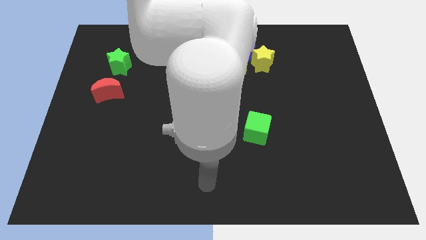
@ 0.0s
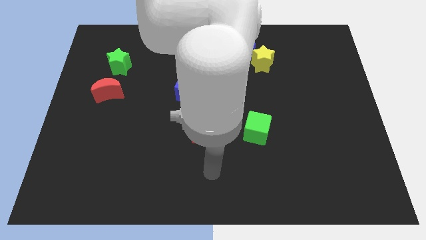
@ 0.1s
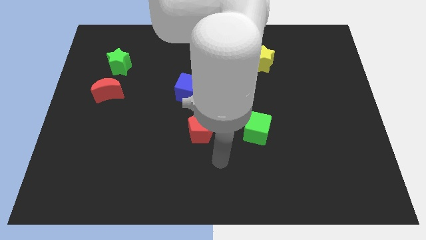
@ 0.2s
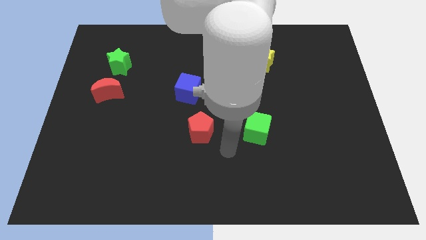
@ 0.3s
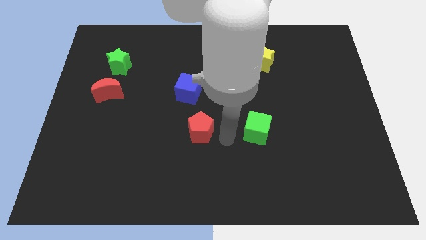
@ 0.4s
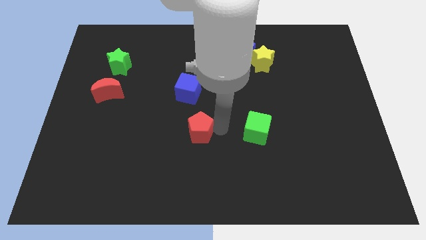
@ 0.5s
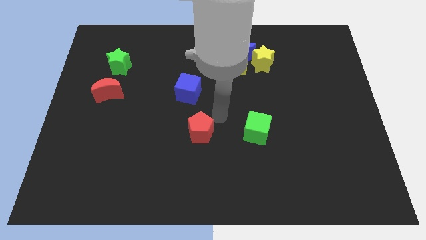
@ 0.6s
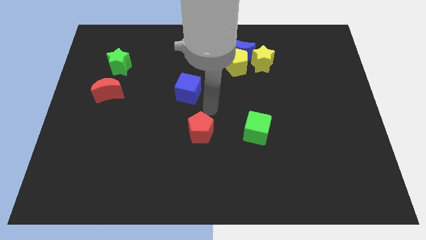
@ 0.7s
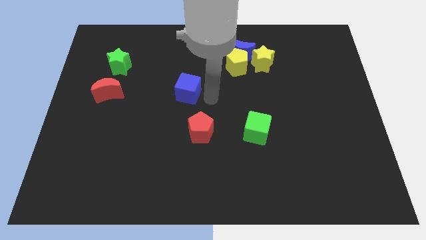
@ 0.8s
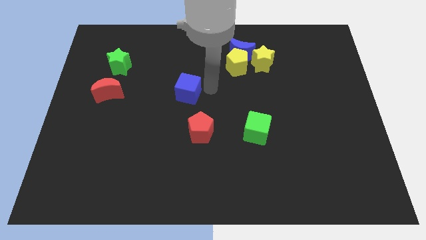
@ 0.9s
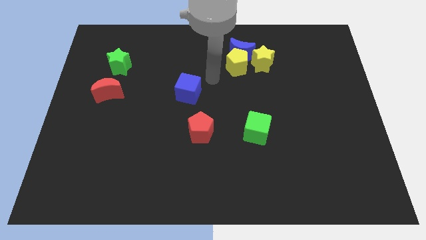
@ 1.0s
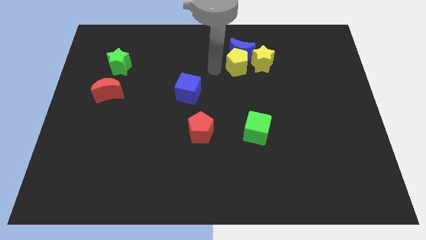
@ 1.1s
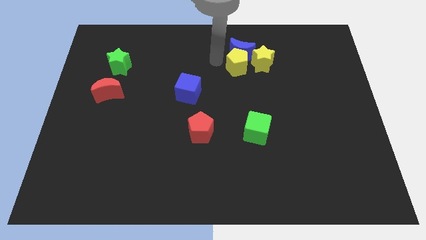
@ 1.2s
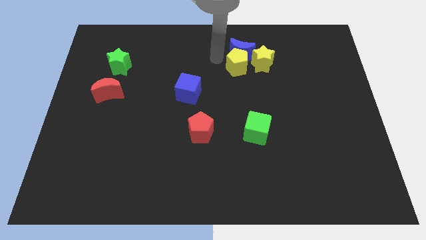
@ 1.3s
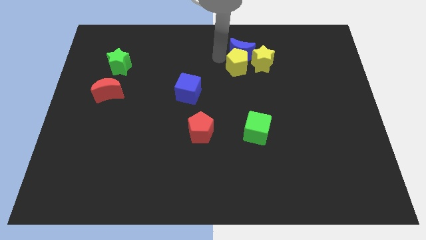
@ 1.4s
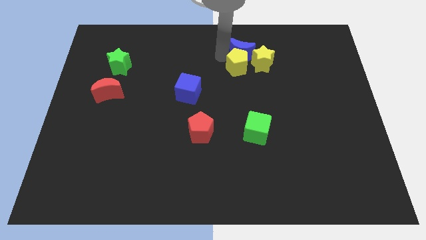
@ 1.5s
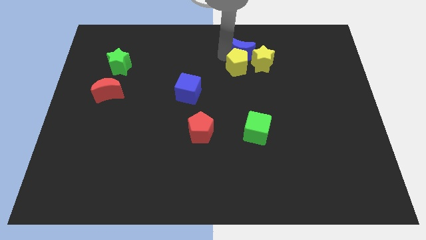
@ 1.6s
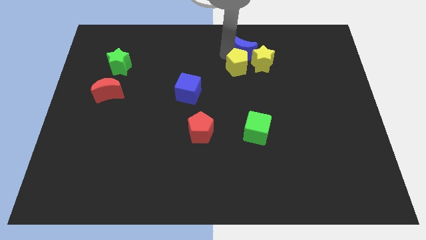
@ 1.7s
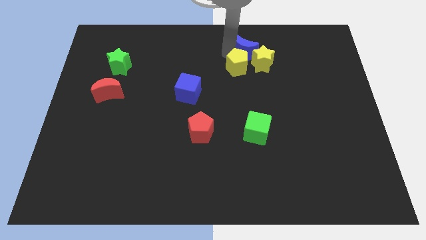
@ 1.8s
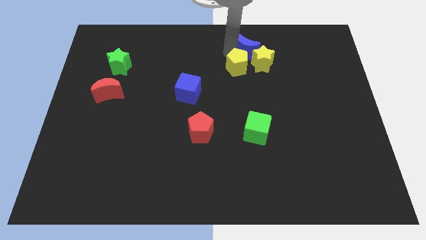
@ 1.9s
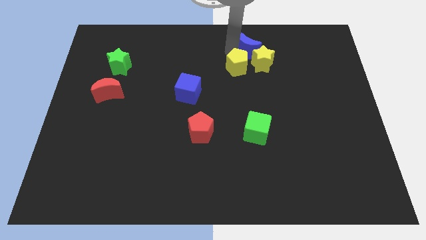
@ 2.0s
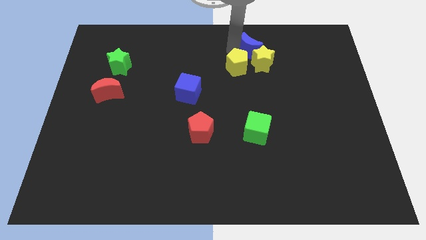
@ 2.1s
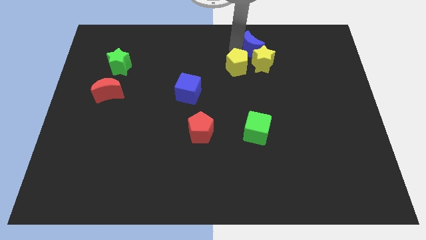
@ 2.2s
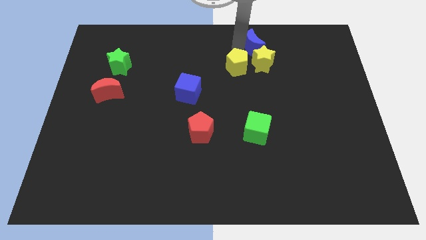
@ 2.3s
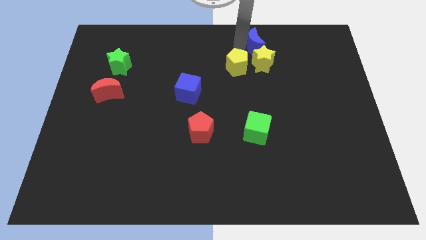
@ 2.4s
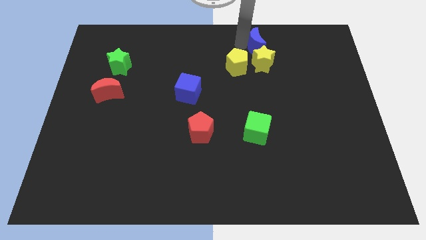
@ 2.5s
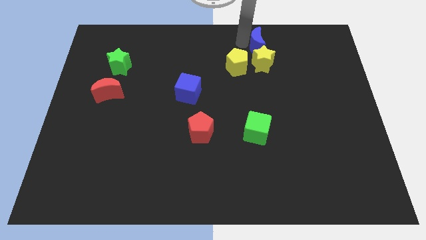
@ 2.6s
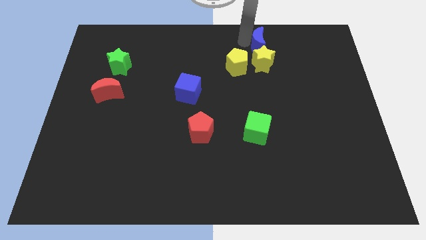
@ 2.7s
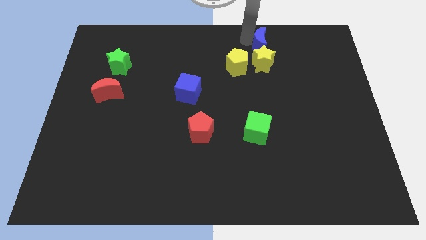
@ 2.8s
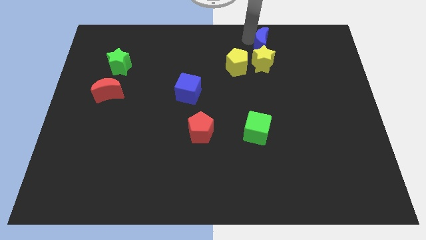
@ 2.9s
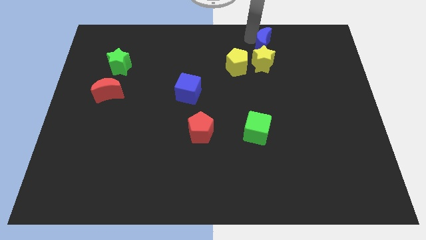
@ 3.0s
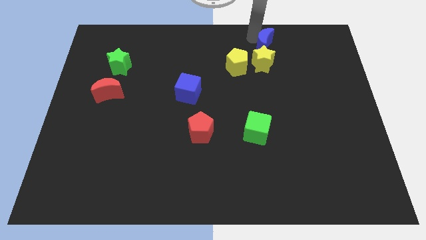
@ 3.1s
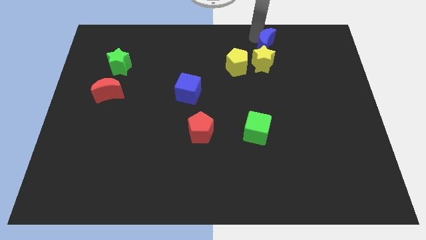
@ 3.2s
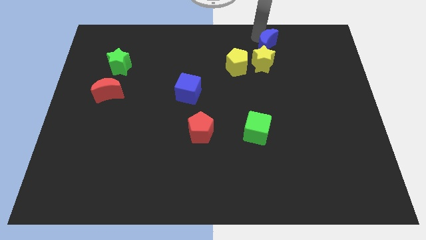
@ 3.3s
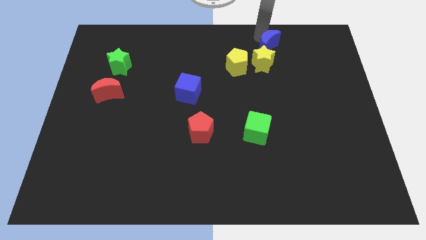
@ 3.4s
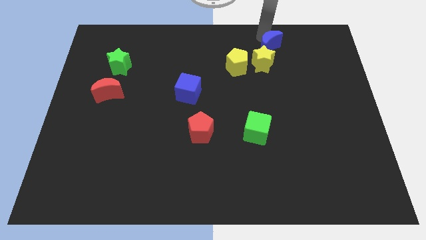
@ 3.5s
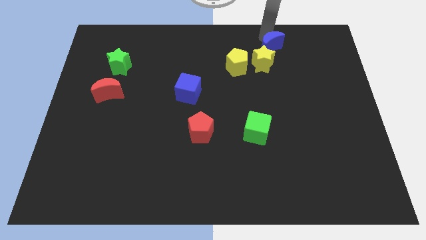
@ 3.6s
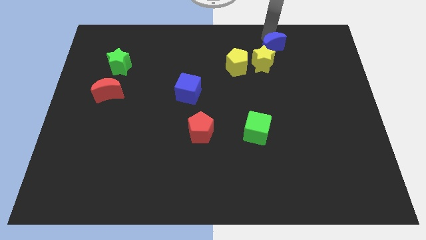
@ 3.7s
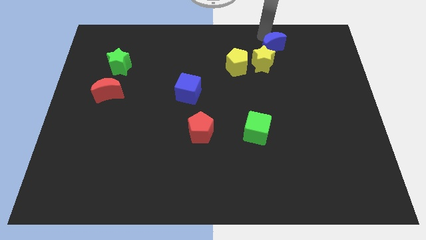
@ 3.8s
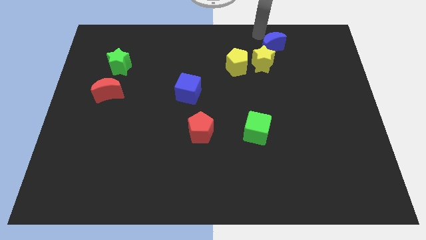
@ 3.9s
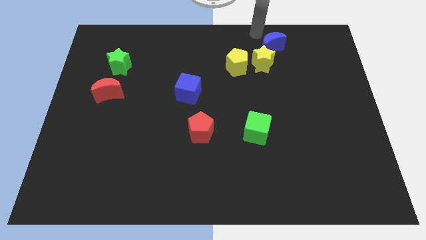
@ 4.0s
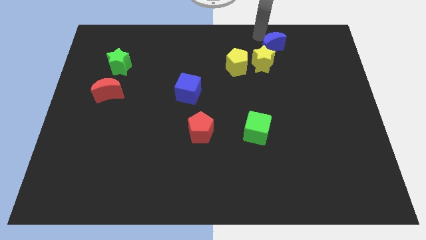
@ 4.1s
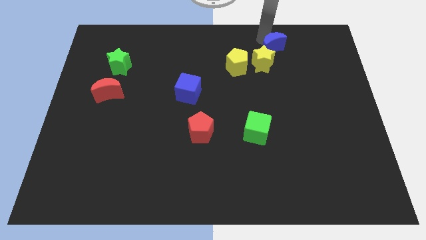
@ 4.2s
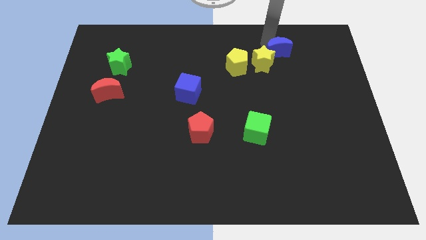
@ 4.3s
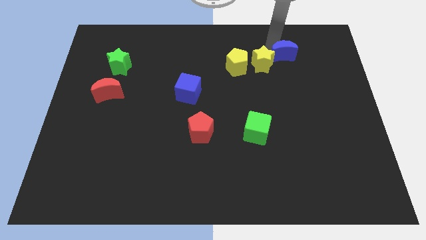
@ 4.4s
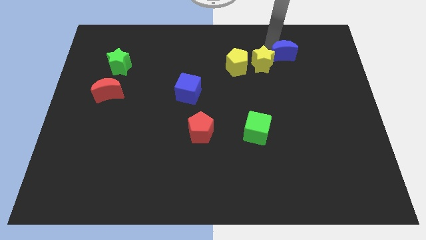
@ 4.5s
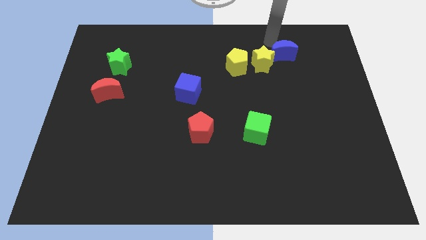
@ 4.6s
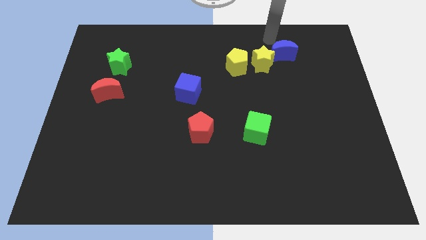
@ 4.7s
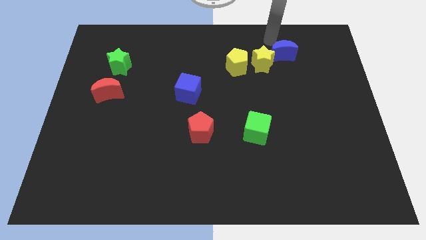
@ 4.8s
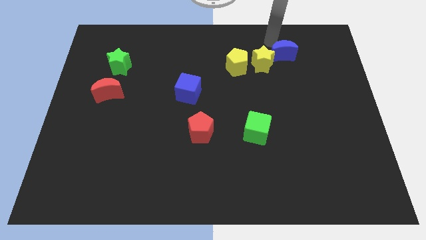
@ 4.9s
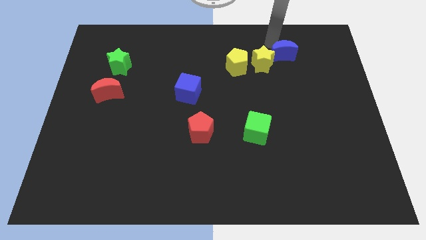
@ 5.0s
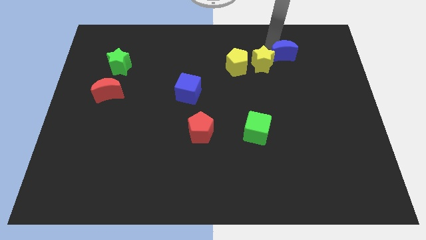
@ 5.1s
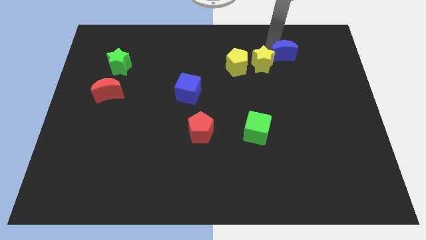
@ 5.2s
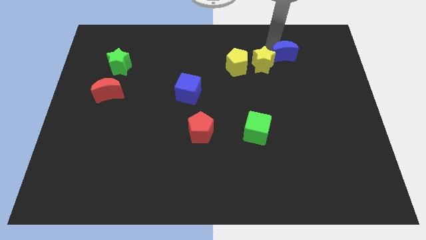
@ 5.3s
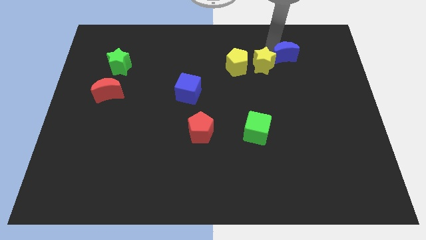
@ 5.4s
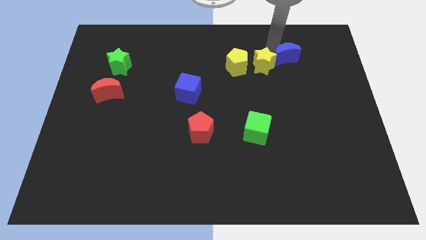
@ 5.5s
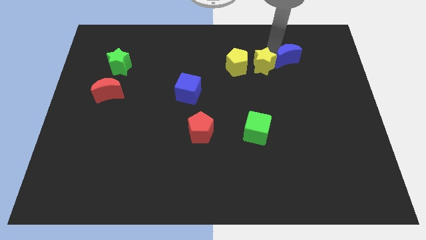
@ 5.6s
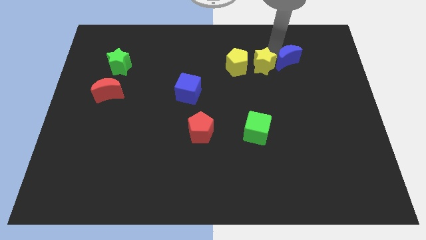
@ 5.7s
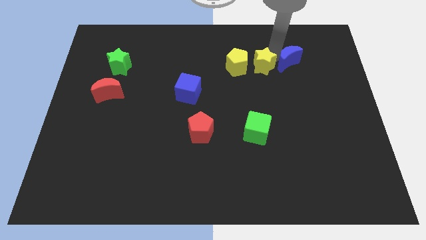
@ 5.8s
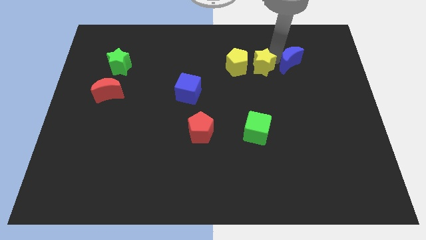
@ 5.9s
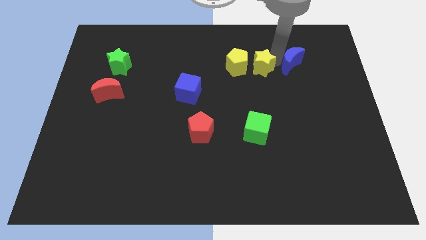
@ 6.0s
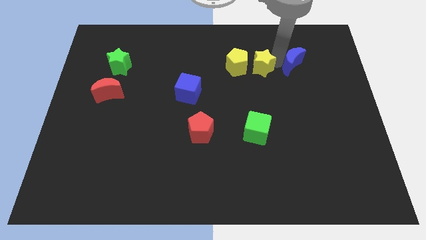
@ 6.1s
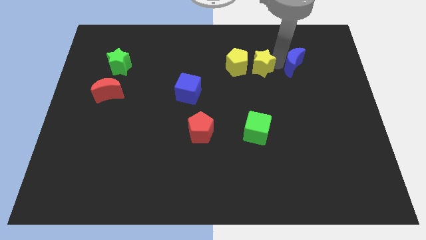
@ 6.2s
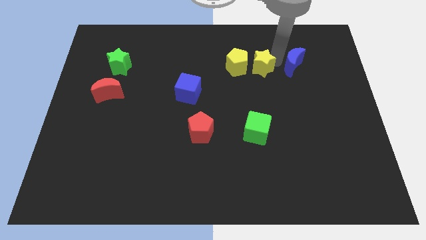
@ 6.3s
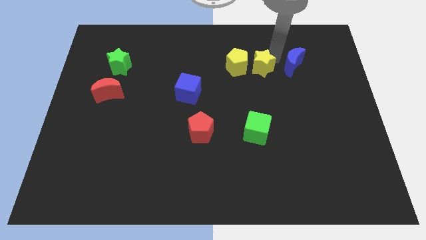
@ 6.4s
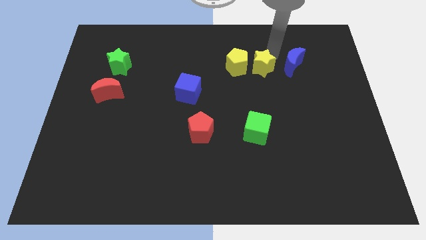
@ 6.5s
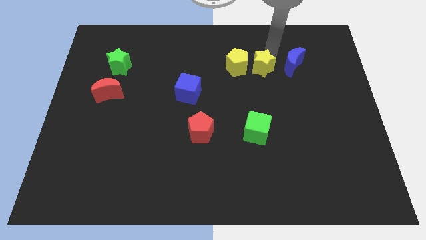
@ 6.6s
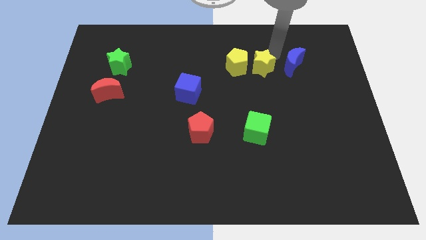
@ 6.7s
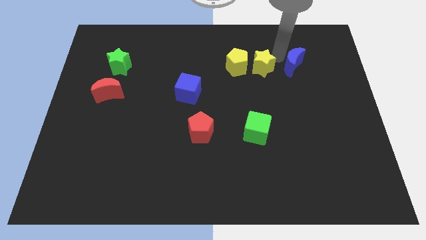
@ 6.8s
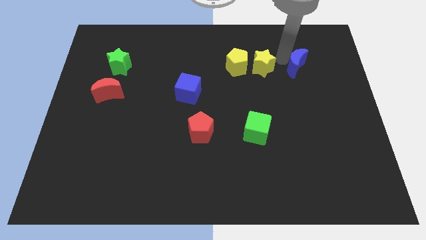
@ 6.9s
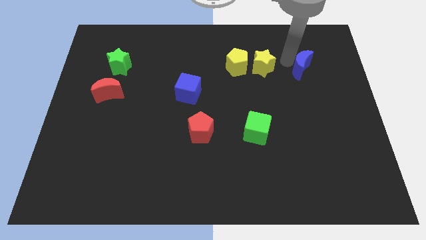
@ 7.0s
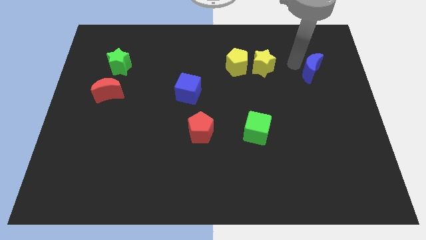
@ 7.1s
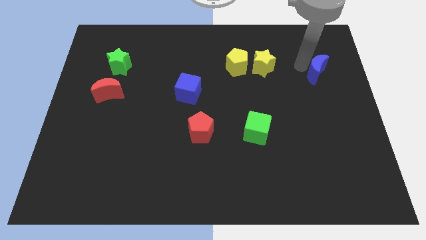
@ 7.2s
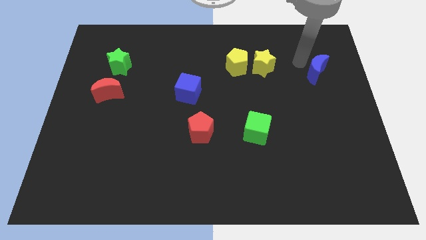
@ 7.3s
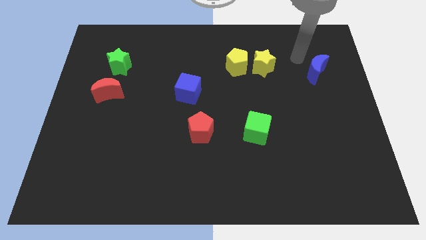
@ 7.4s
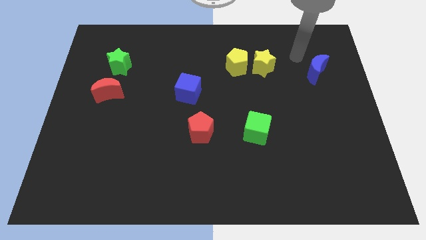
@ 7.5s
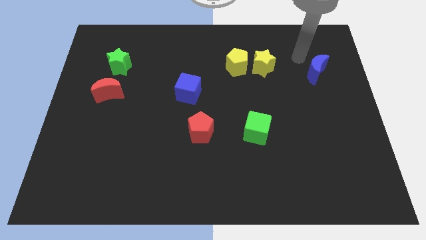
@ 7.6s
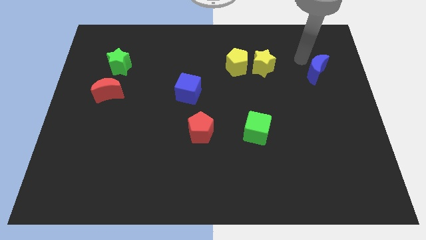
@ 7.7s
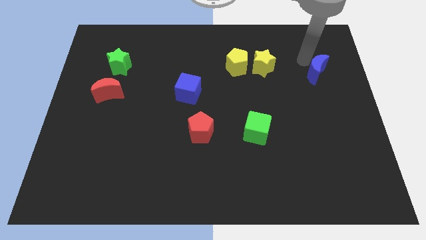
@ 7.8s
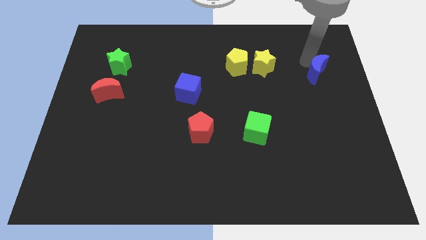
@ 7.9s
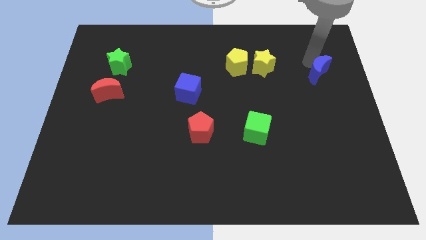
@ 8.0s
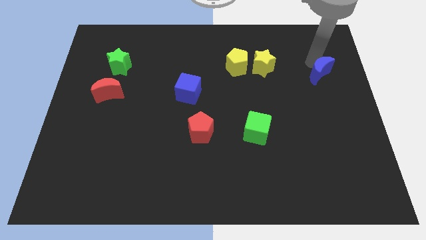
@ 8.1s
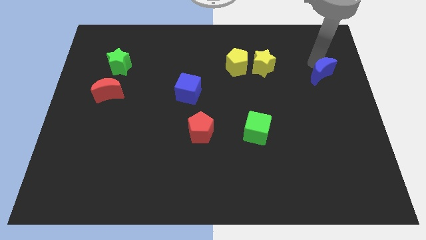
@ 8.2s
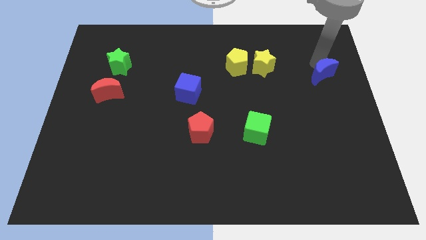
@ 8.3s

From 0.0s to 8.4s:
push the blue moon to the right side of the board
